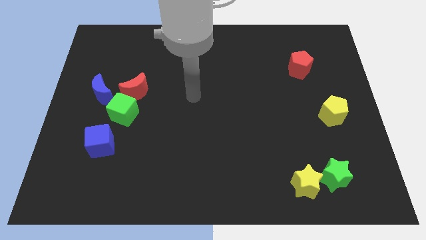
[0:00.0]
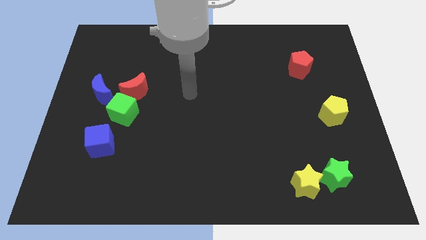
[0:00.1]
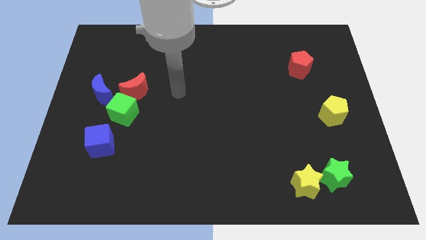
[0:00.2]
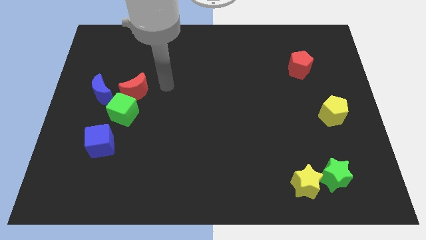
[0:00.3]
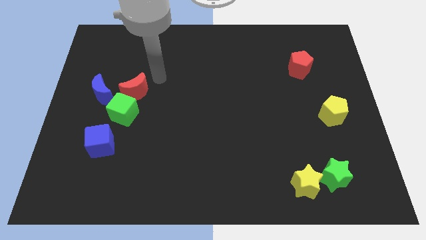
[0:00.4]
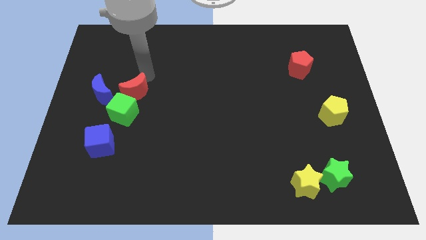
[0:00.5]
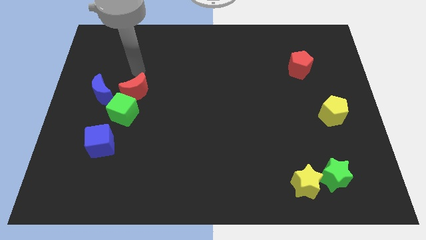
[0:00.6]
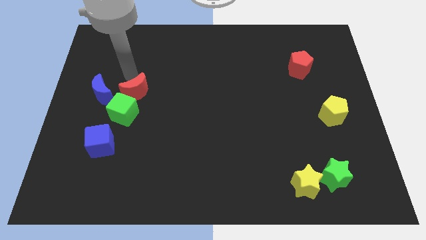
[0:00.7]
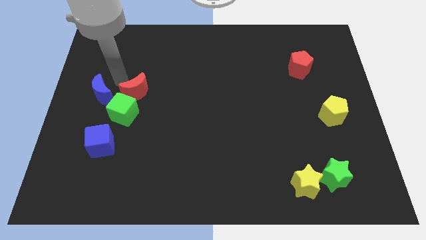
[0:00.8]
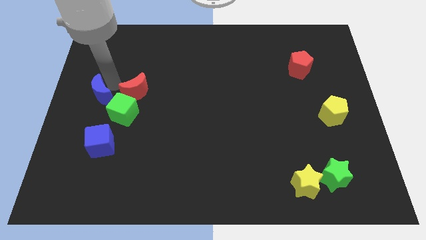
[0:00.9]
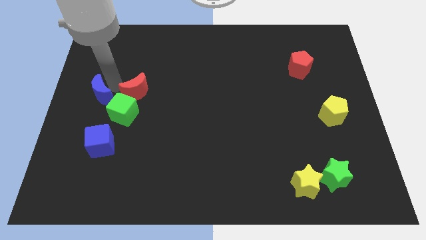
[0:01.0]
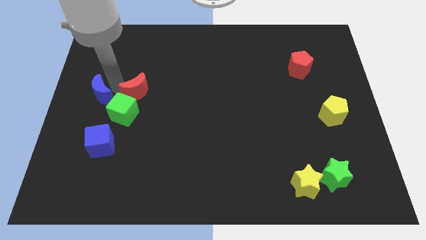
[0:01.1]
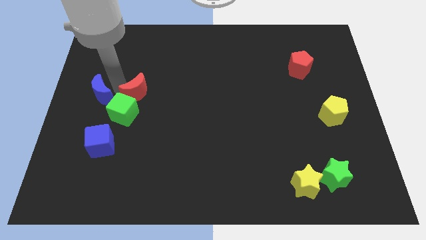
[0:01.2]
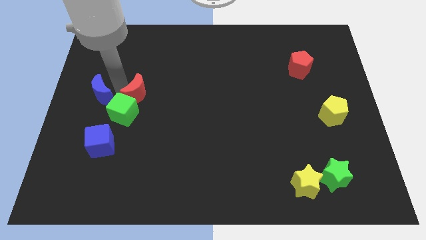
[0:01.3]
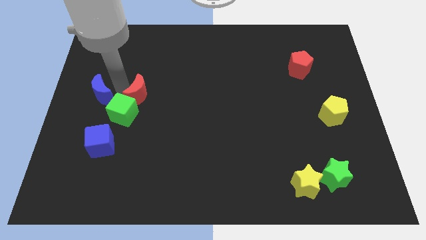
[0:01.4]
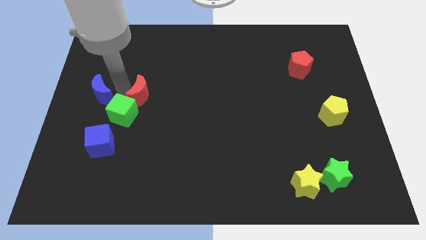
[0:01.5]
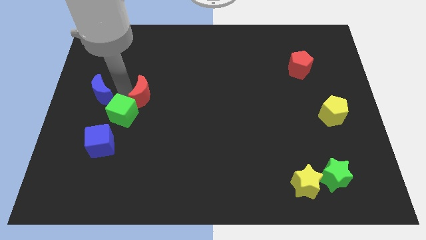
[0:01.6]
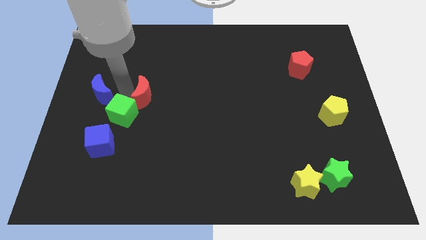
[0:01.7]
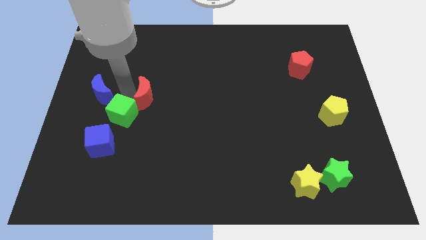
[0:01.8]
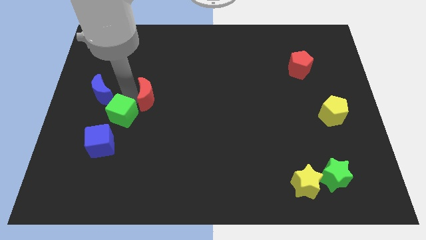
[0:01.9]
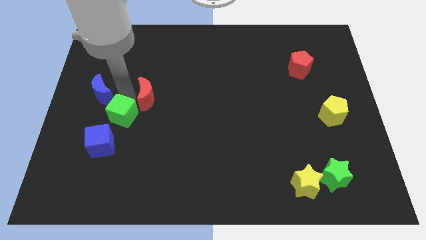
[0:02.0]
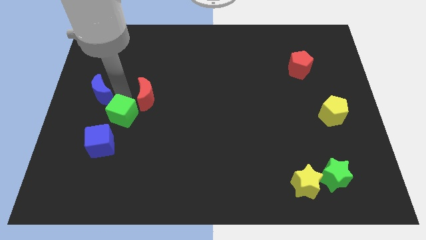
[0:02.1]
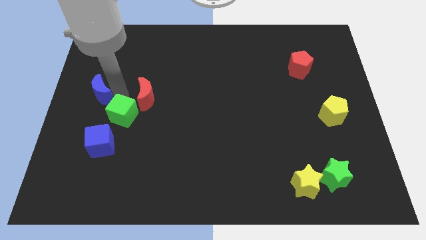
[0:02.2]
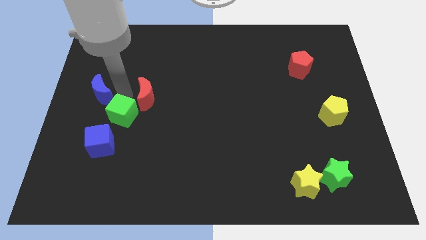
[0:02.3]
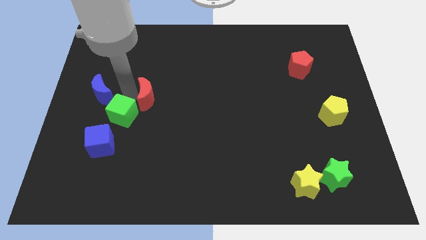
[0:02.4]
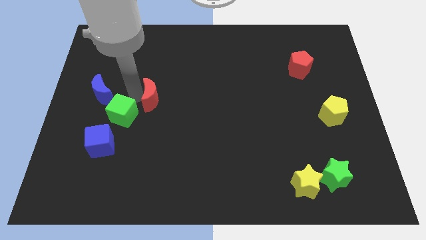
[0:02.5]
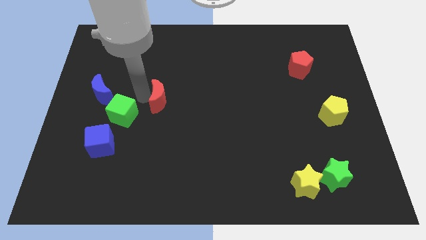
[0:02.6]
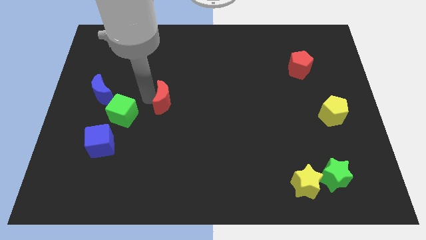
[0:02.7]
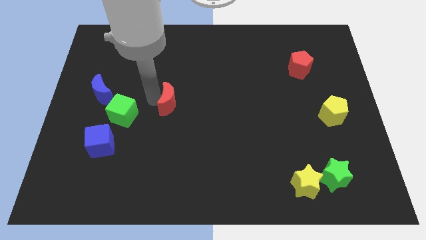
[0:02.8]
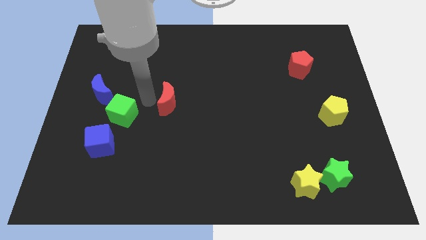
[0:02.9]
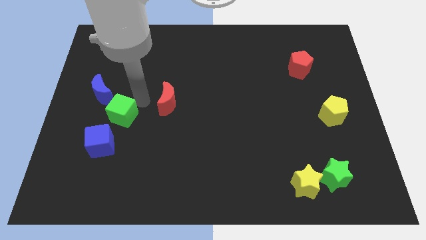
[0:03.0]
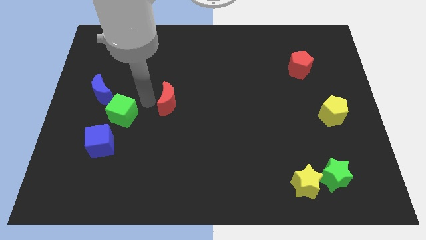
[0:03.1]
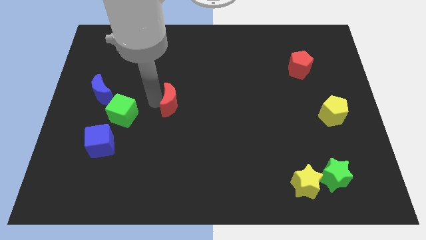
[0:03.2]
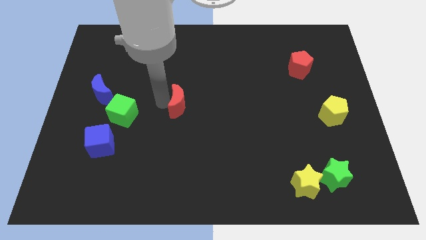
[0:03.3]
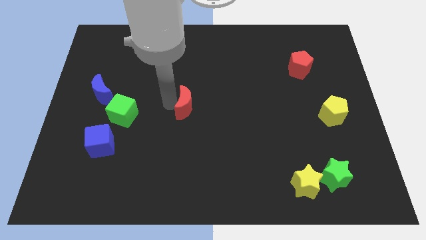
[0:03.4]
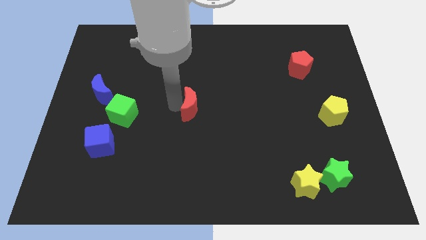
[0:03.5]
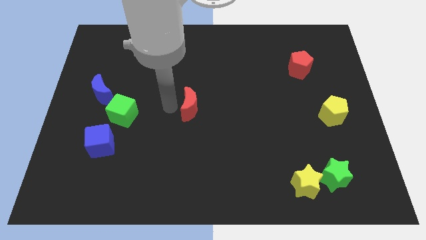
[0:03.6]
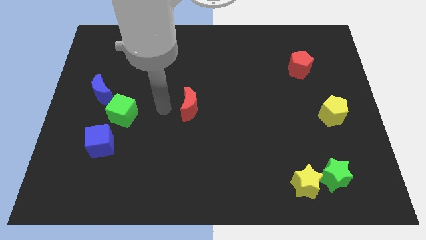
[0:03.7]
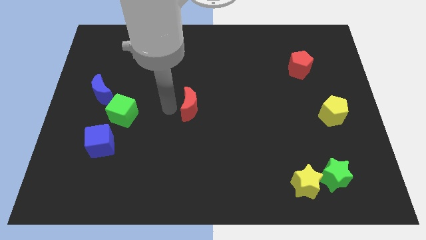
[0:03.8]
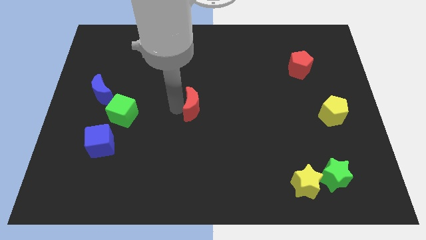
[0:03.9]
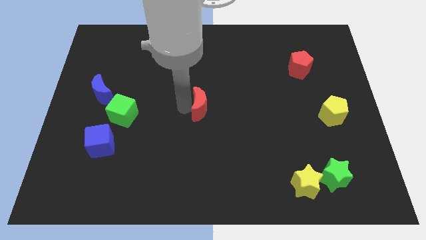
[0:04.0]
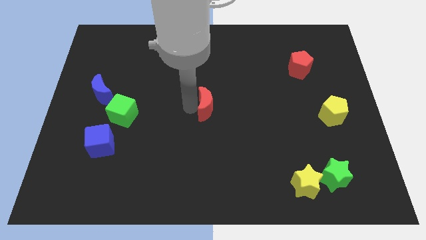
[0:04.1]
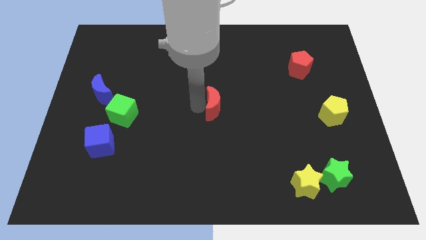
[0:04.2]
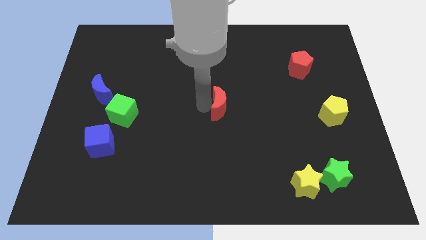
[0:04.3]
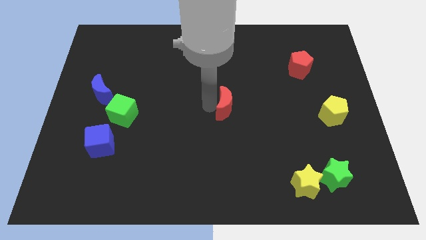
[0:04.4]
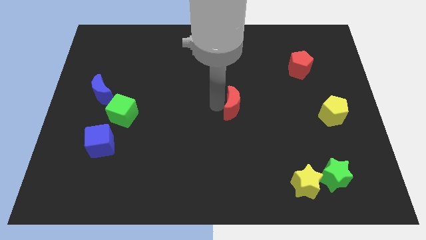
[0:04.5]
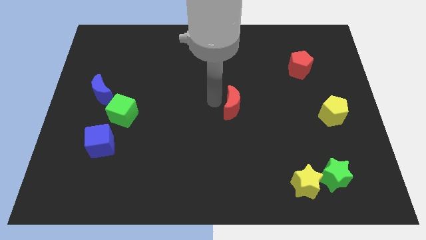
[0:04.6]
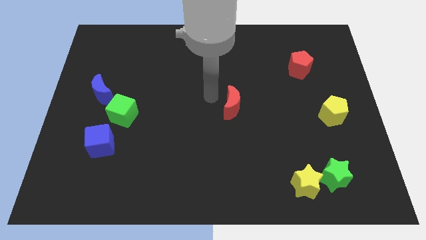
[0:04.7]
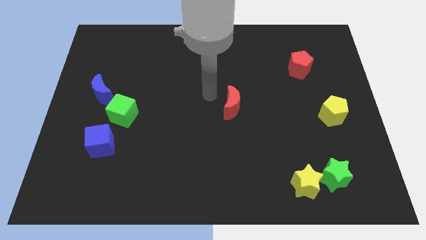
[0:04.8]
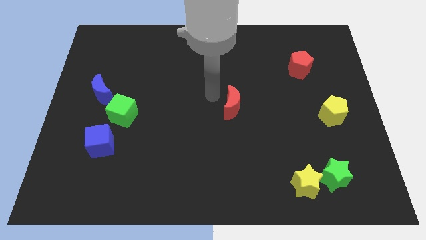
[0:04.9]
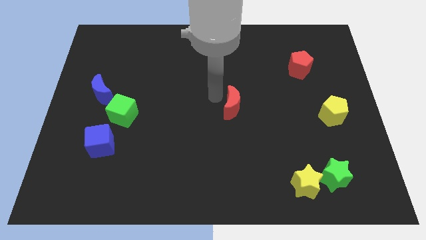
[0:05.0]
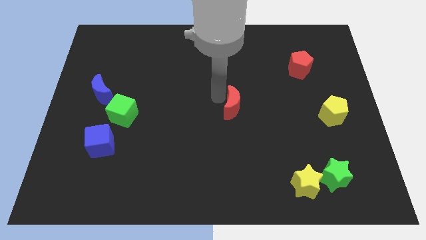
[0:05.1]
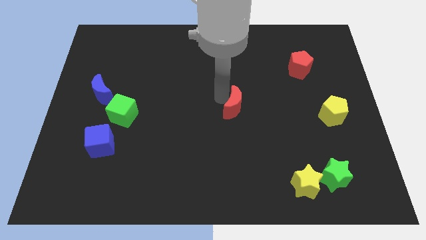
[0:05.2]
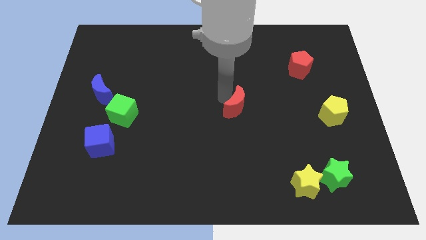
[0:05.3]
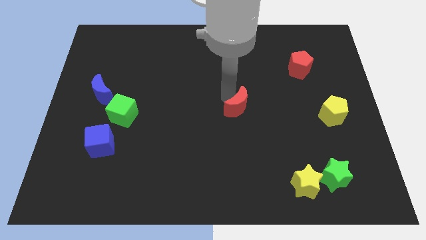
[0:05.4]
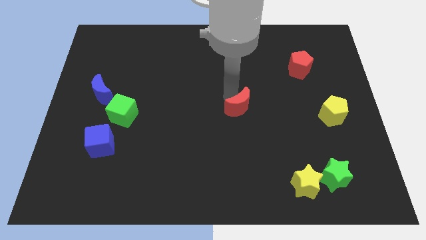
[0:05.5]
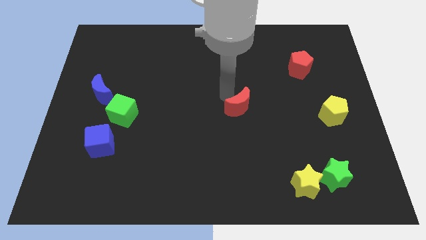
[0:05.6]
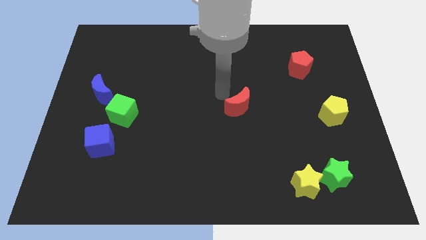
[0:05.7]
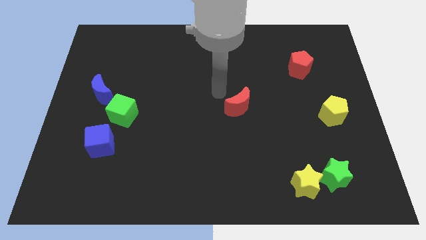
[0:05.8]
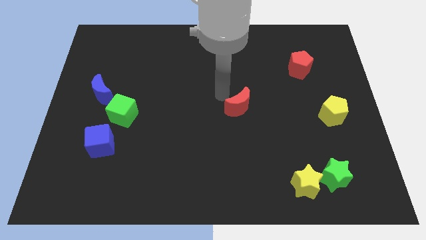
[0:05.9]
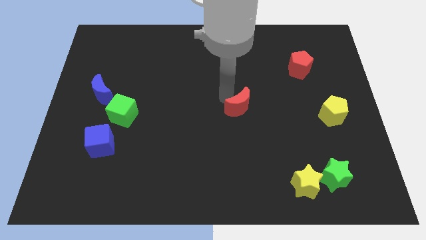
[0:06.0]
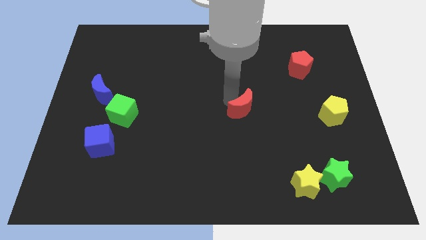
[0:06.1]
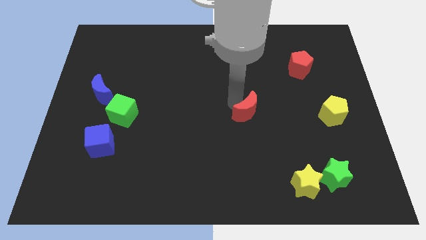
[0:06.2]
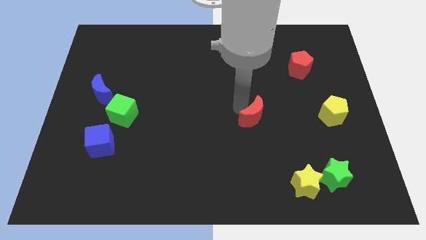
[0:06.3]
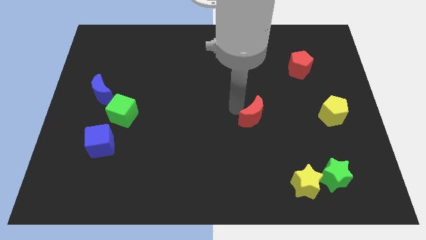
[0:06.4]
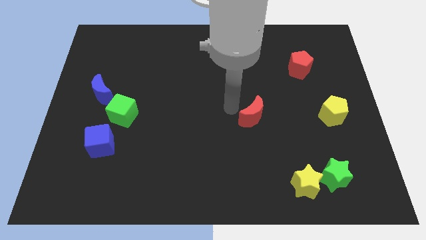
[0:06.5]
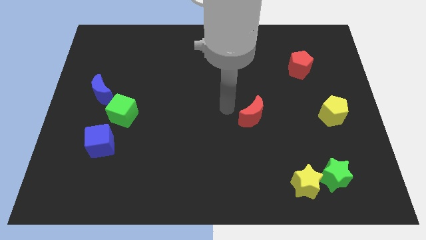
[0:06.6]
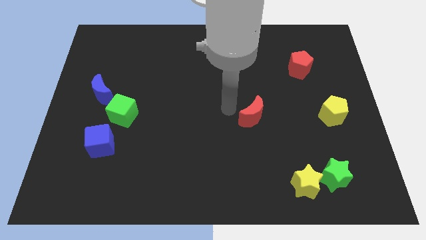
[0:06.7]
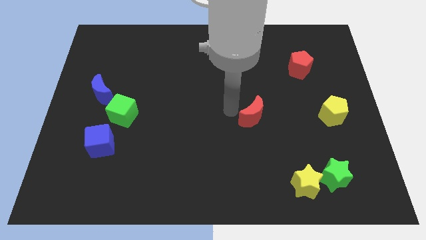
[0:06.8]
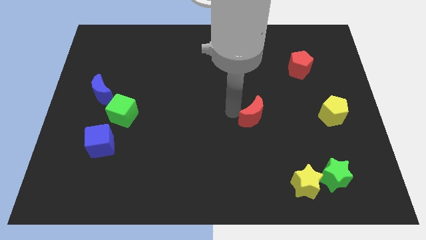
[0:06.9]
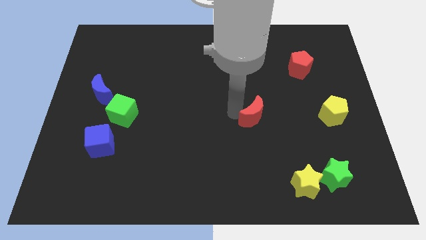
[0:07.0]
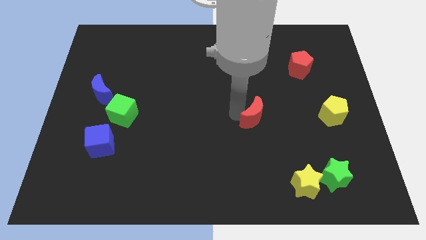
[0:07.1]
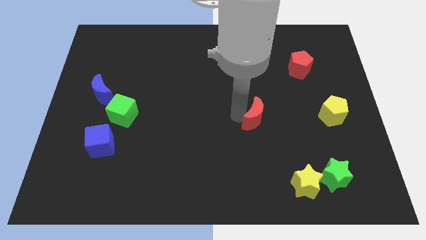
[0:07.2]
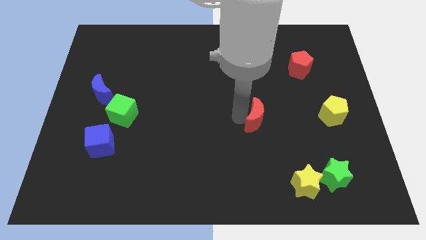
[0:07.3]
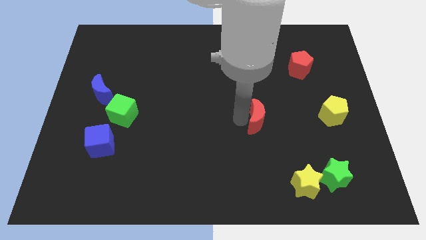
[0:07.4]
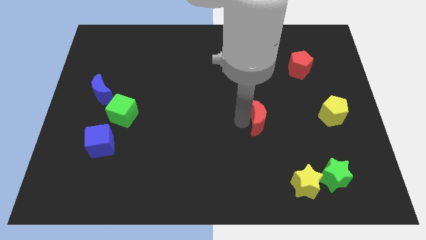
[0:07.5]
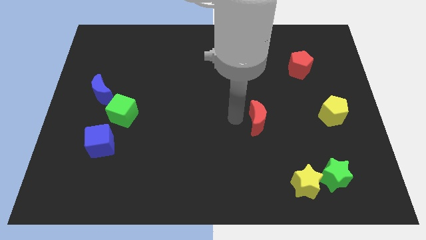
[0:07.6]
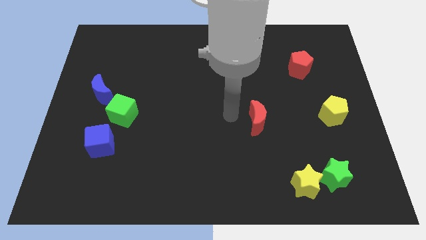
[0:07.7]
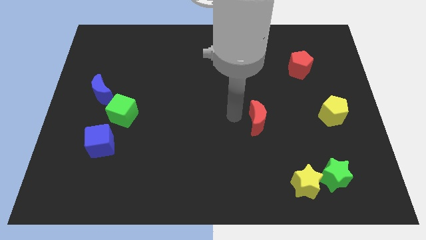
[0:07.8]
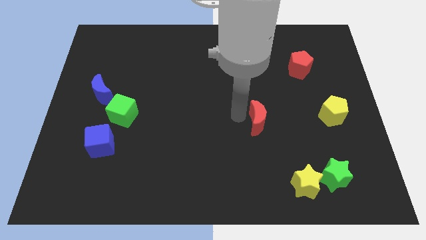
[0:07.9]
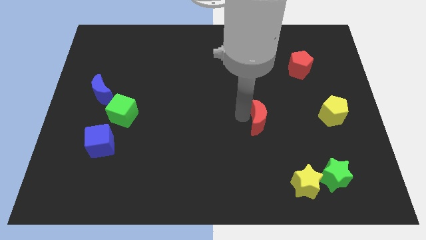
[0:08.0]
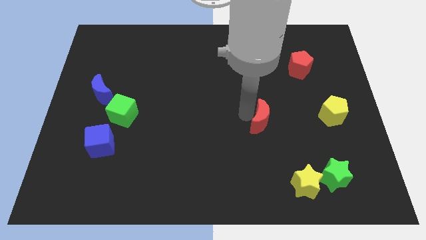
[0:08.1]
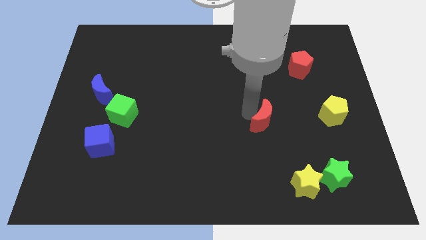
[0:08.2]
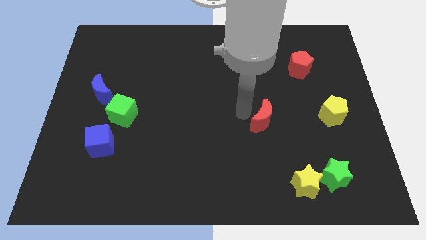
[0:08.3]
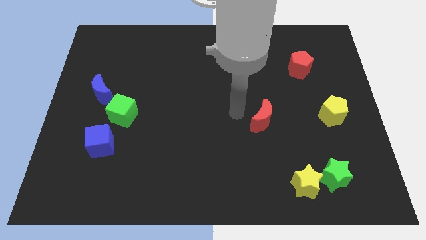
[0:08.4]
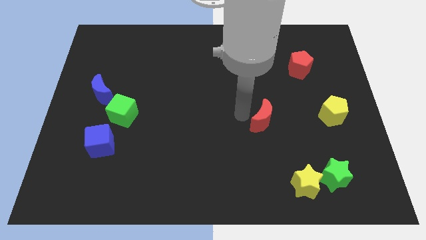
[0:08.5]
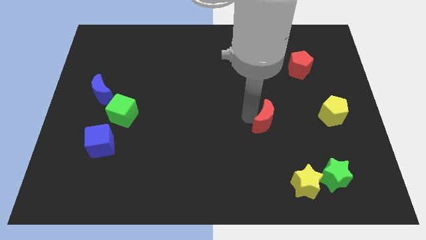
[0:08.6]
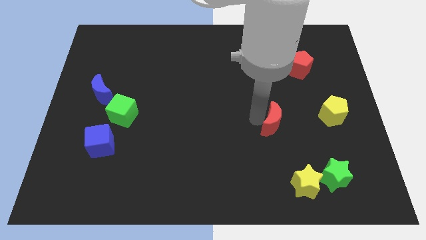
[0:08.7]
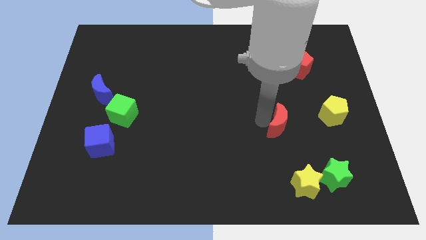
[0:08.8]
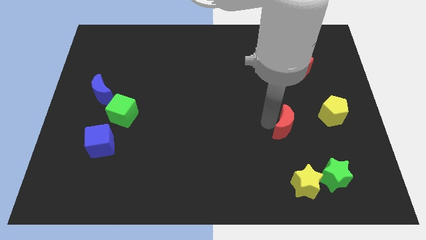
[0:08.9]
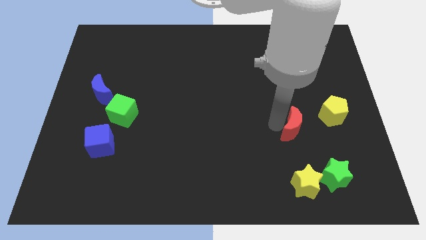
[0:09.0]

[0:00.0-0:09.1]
push the red moon to the bottom left of the yellow pentagon
